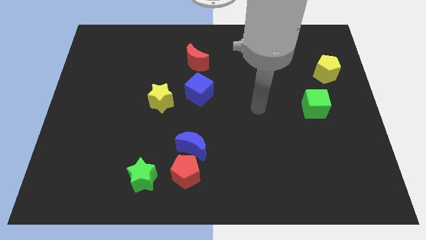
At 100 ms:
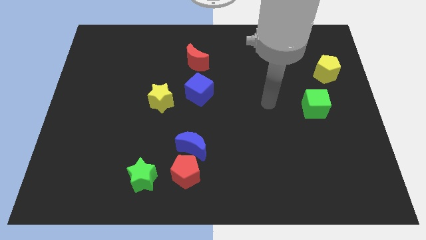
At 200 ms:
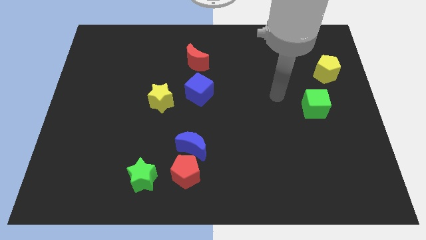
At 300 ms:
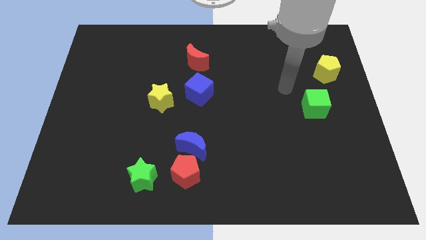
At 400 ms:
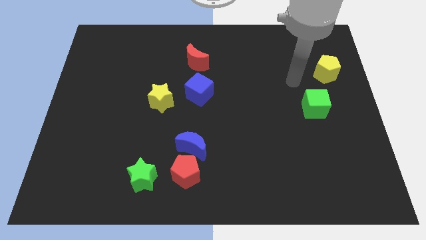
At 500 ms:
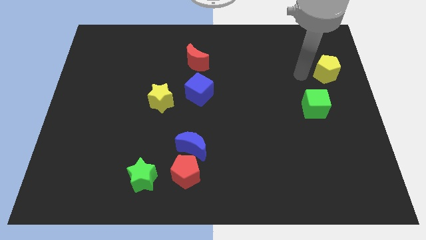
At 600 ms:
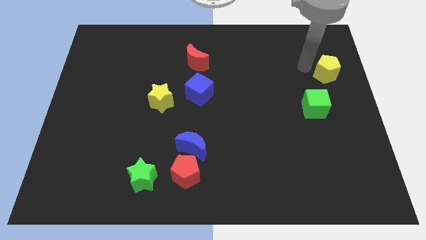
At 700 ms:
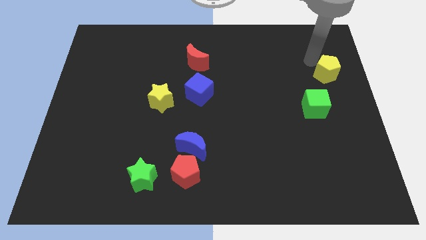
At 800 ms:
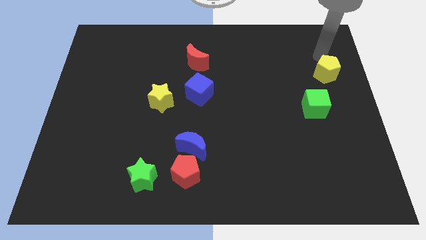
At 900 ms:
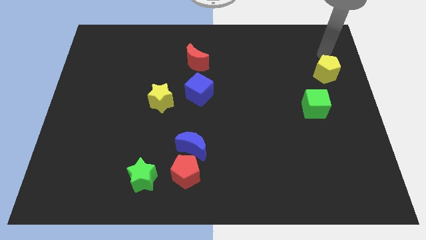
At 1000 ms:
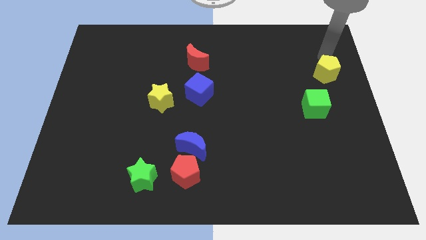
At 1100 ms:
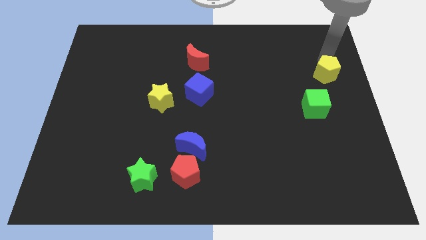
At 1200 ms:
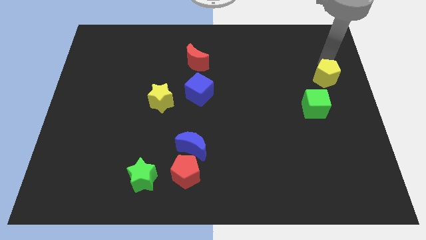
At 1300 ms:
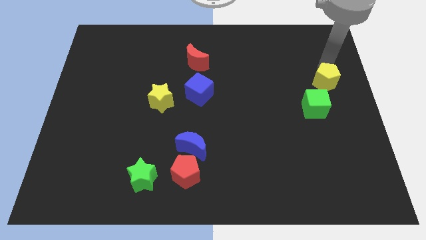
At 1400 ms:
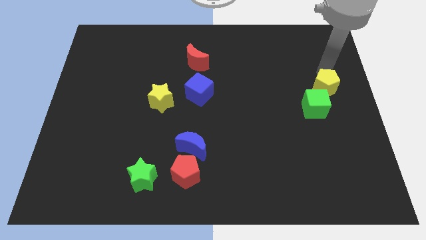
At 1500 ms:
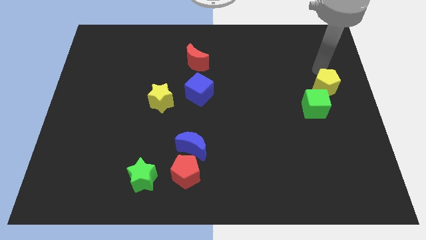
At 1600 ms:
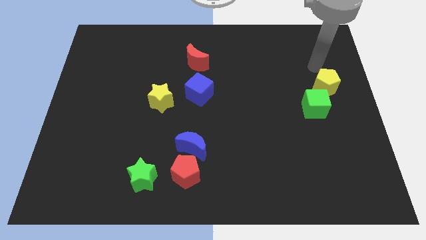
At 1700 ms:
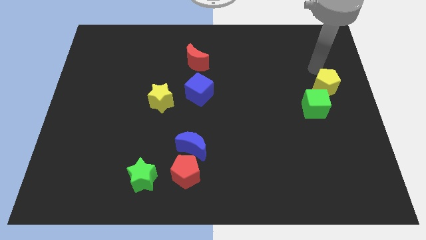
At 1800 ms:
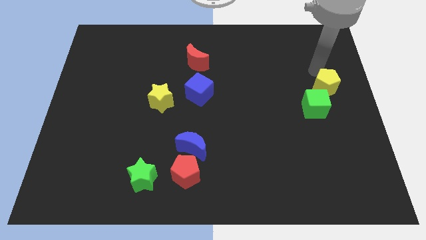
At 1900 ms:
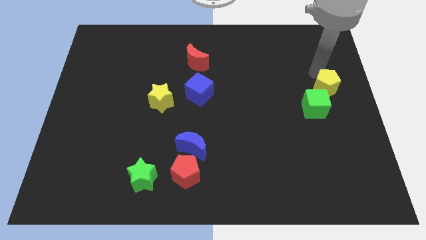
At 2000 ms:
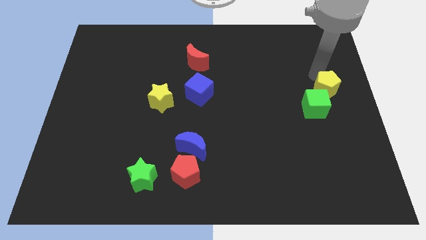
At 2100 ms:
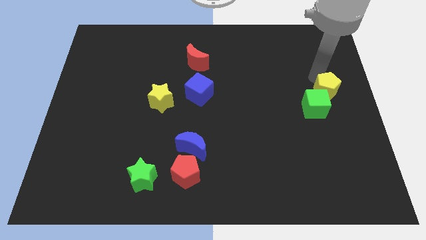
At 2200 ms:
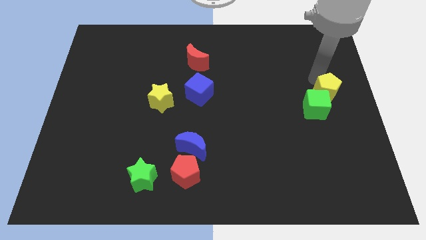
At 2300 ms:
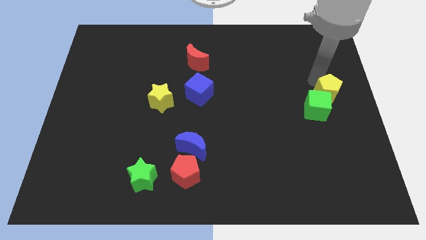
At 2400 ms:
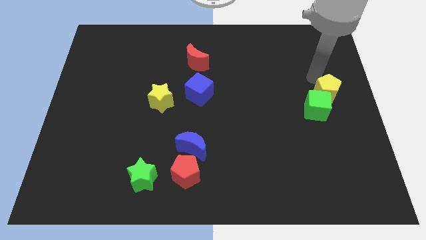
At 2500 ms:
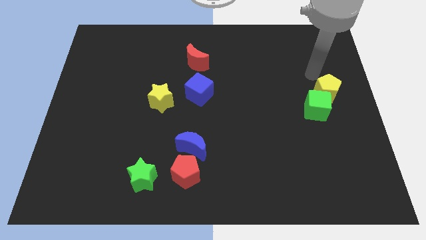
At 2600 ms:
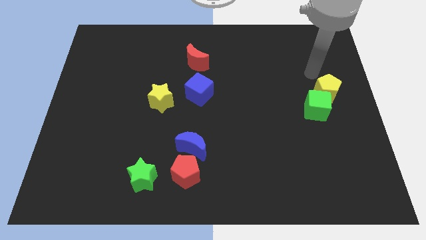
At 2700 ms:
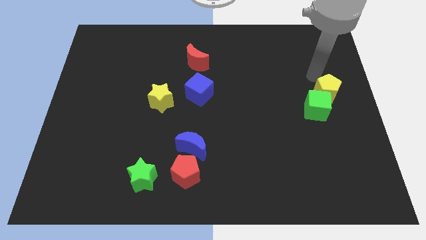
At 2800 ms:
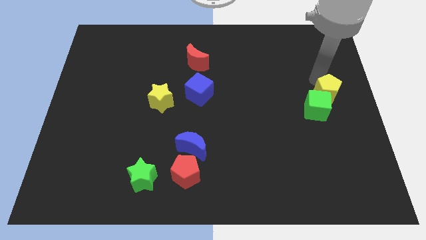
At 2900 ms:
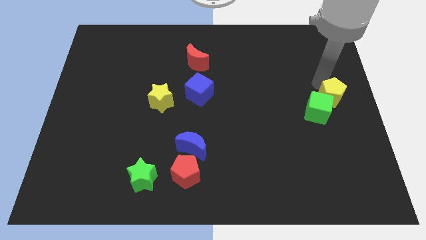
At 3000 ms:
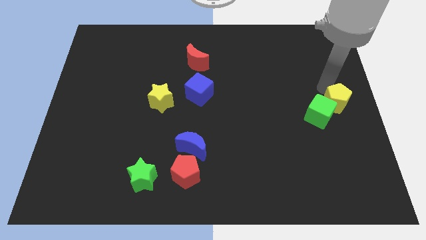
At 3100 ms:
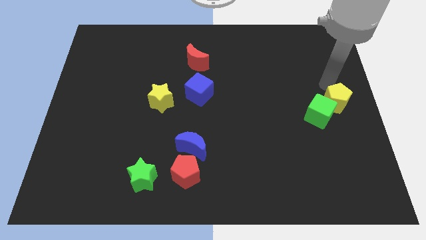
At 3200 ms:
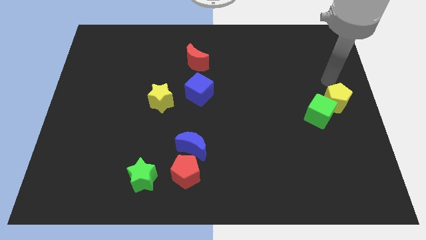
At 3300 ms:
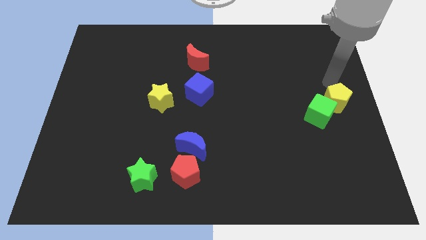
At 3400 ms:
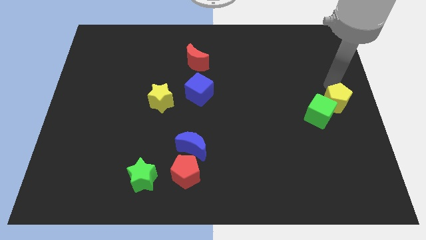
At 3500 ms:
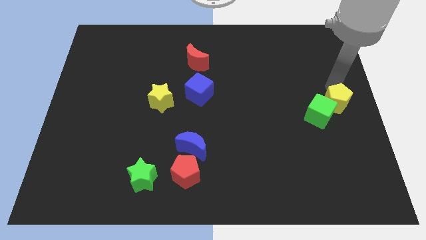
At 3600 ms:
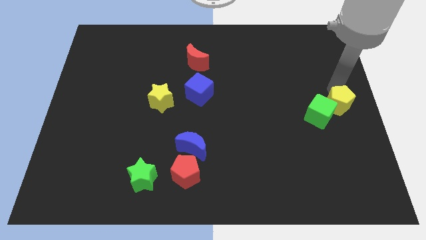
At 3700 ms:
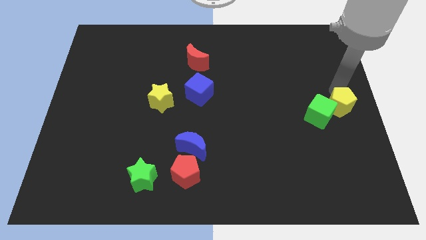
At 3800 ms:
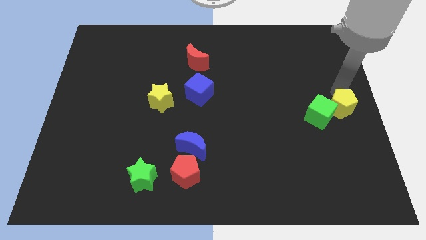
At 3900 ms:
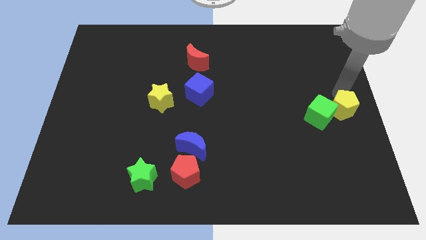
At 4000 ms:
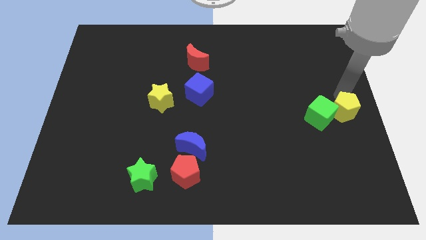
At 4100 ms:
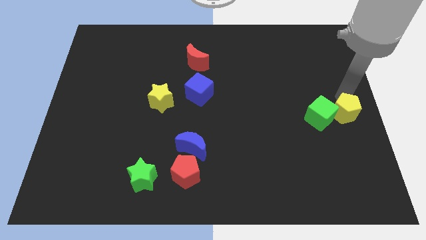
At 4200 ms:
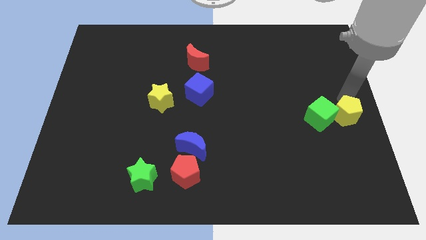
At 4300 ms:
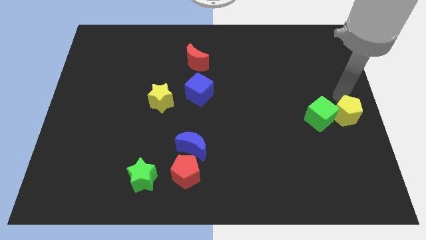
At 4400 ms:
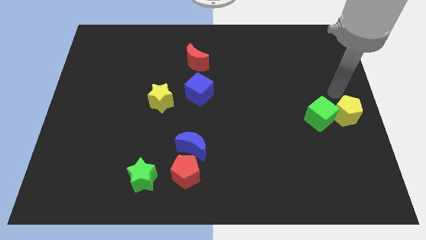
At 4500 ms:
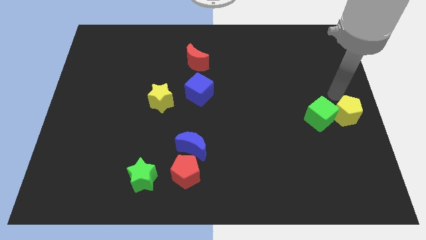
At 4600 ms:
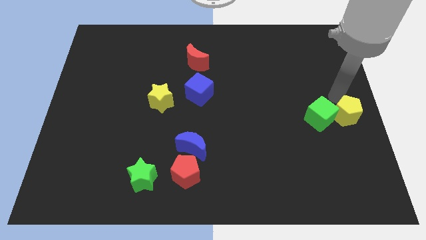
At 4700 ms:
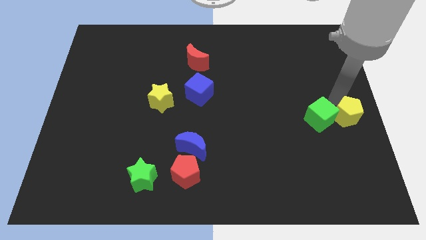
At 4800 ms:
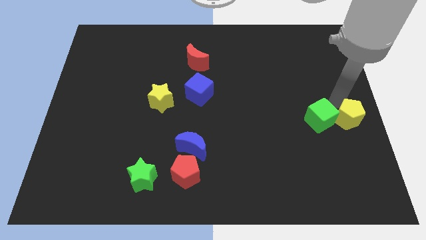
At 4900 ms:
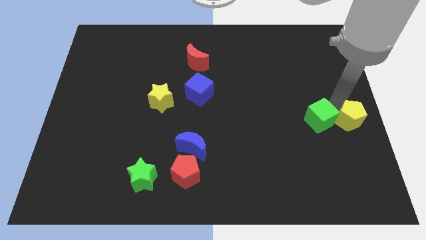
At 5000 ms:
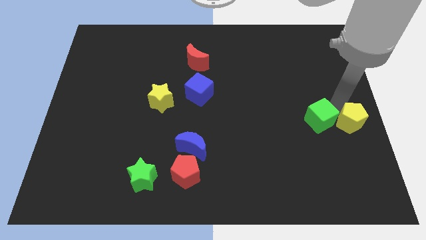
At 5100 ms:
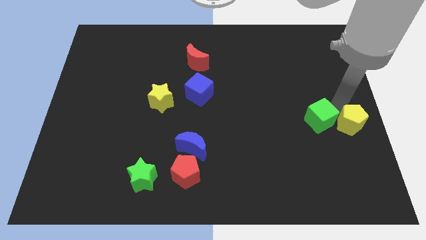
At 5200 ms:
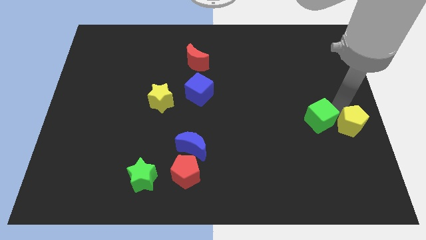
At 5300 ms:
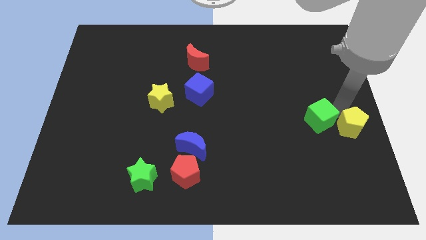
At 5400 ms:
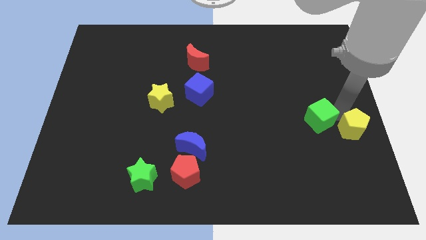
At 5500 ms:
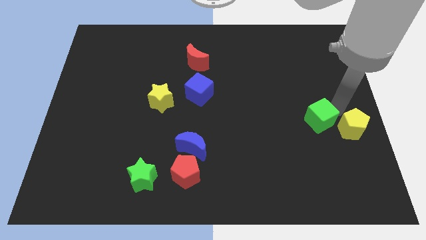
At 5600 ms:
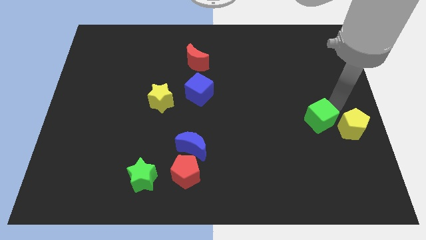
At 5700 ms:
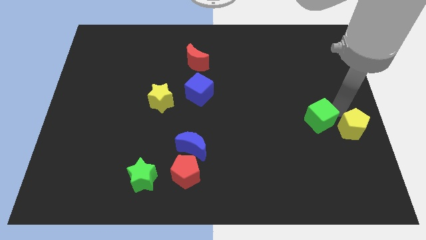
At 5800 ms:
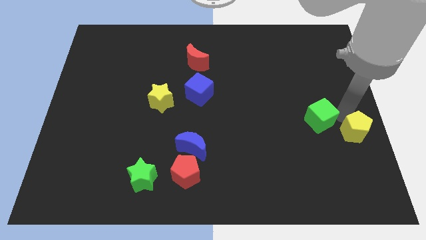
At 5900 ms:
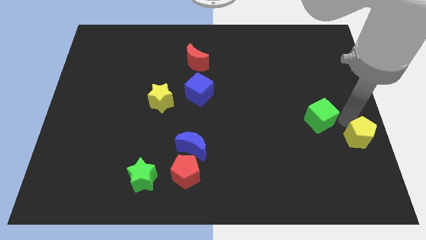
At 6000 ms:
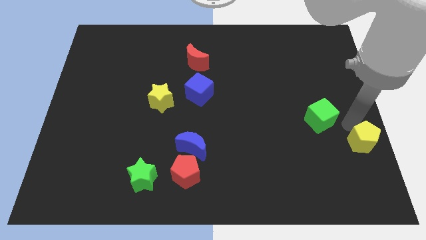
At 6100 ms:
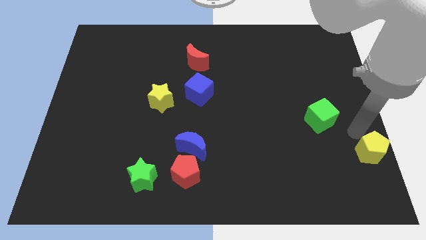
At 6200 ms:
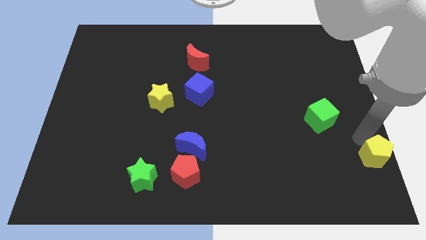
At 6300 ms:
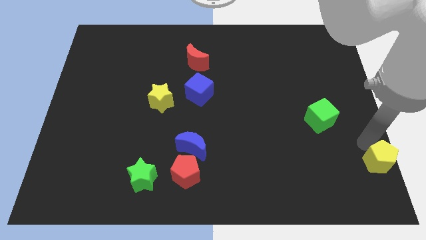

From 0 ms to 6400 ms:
put the yellow pentagon to the bottom right of the board

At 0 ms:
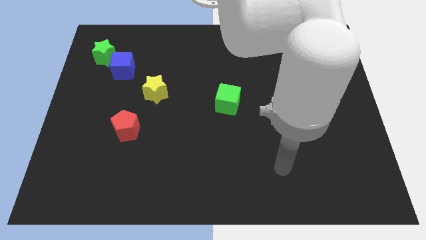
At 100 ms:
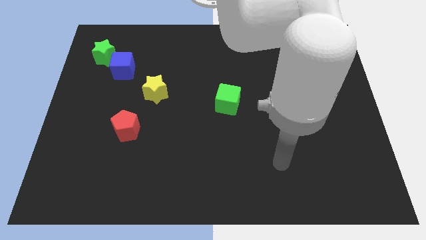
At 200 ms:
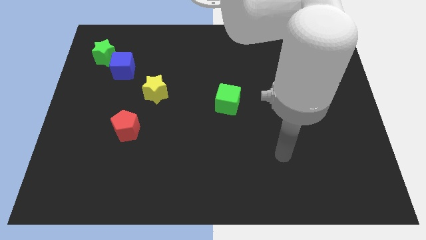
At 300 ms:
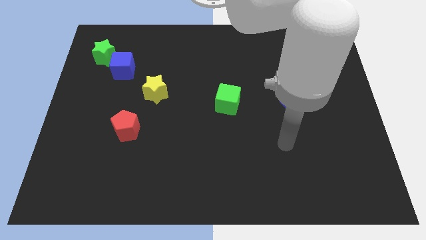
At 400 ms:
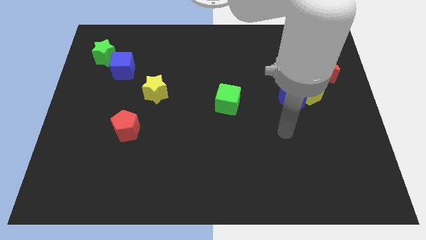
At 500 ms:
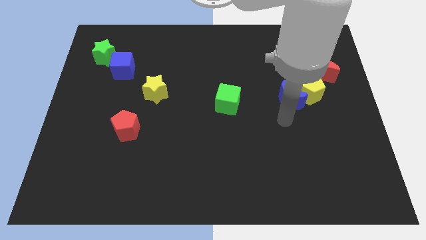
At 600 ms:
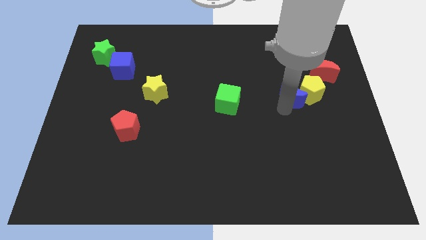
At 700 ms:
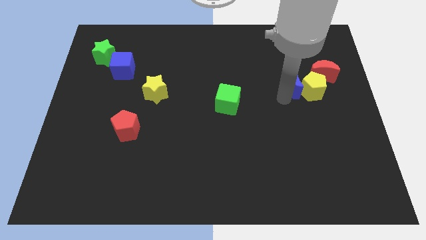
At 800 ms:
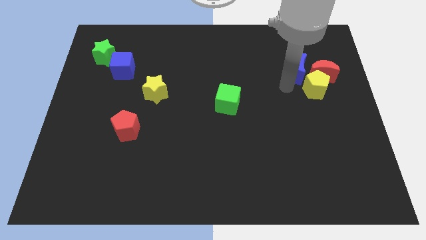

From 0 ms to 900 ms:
push the yellow pentagon to the right side of the board

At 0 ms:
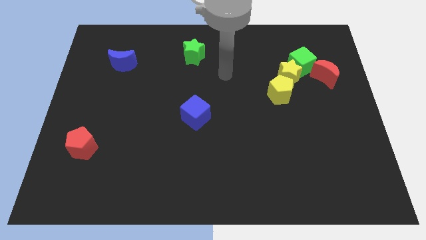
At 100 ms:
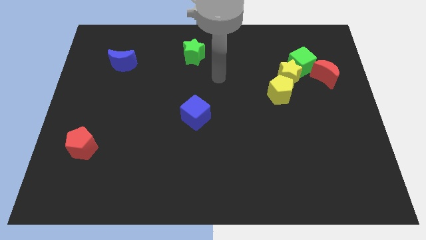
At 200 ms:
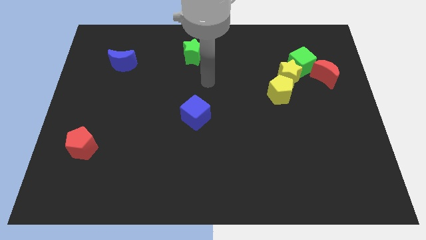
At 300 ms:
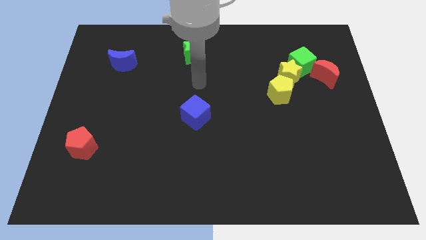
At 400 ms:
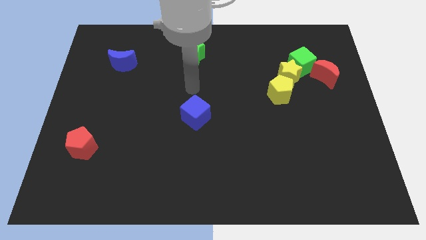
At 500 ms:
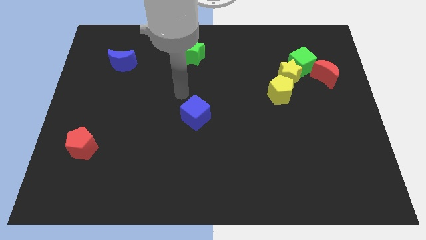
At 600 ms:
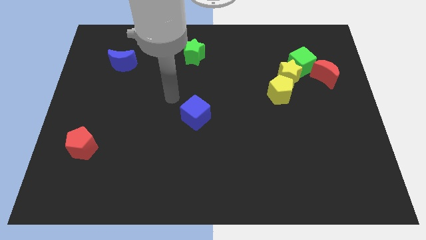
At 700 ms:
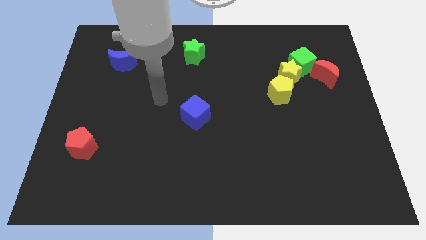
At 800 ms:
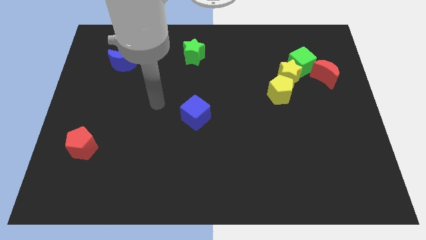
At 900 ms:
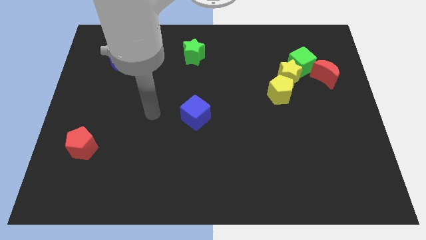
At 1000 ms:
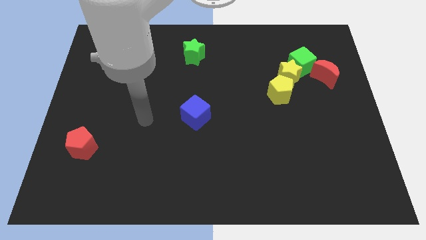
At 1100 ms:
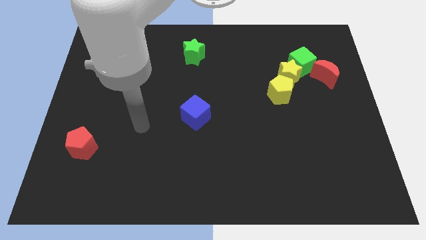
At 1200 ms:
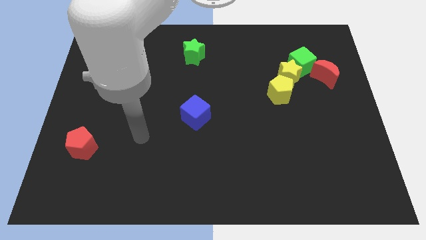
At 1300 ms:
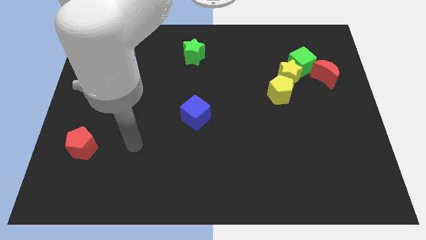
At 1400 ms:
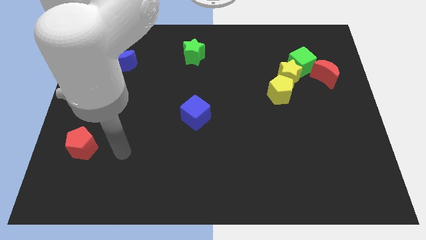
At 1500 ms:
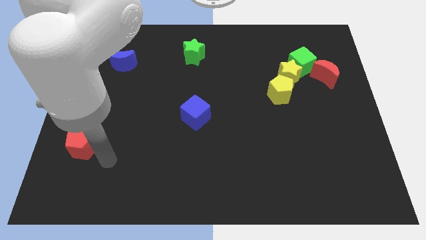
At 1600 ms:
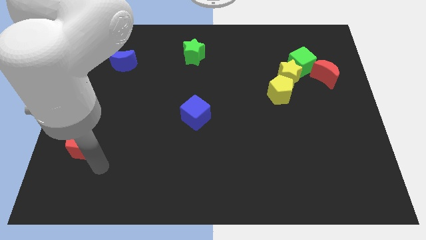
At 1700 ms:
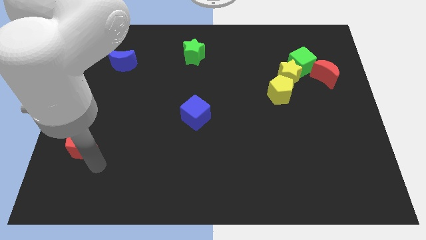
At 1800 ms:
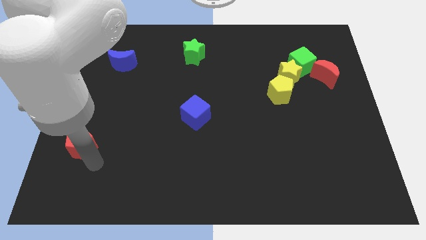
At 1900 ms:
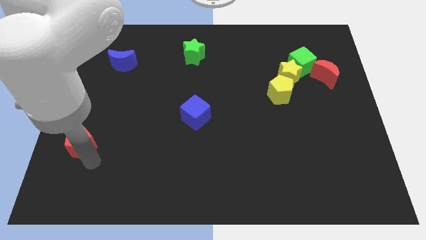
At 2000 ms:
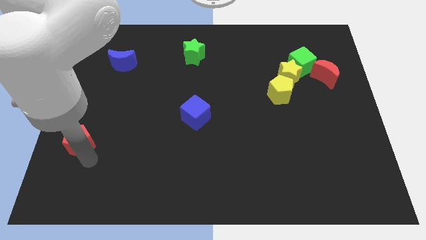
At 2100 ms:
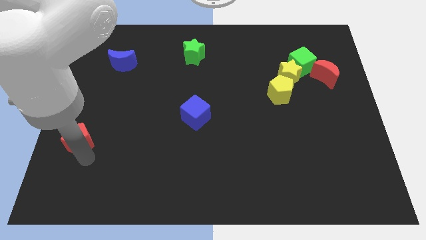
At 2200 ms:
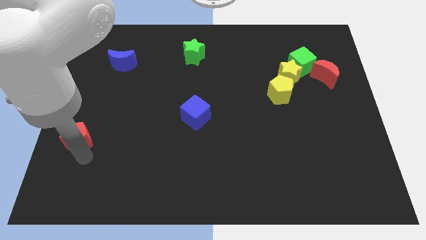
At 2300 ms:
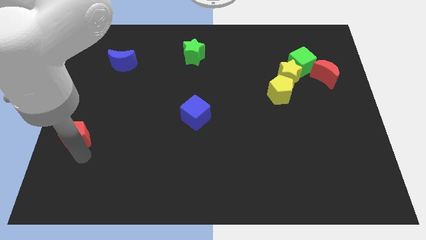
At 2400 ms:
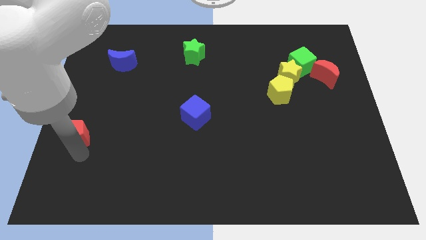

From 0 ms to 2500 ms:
move the red pentagon to the center left
